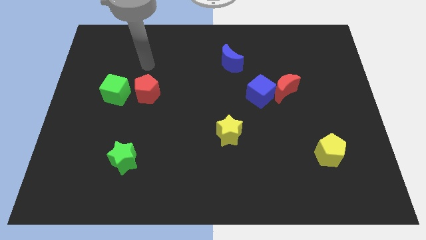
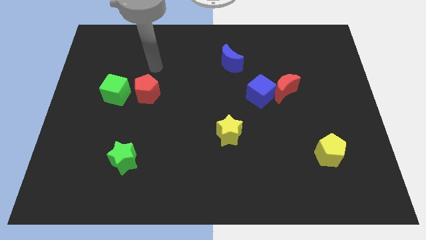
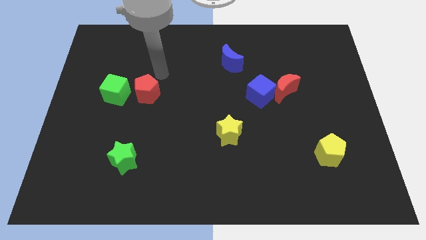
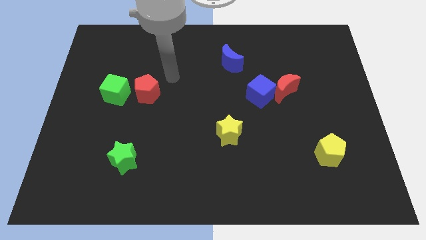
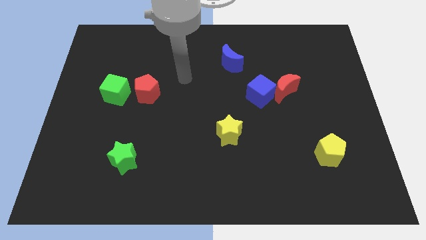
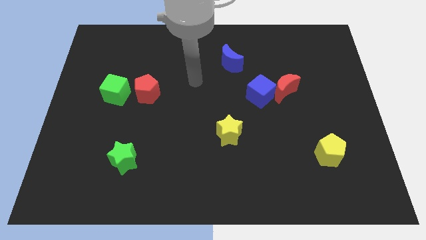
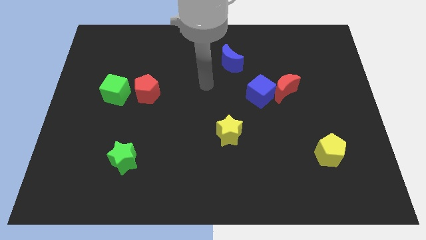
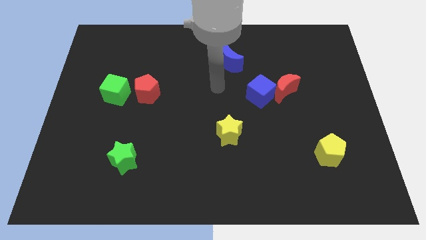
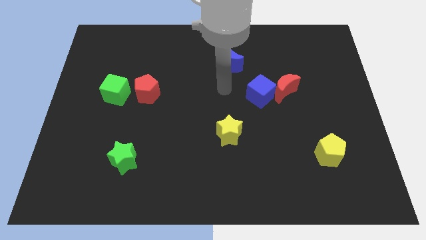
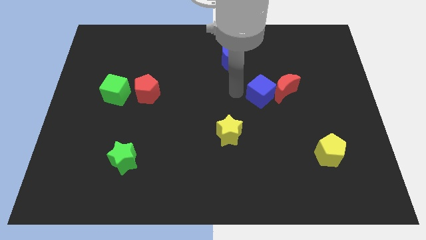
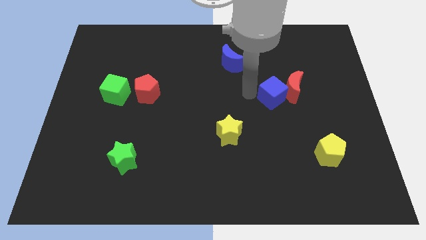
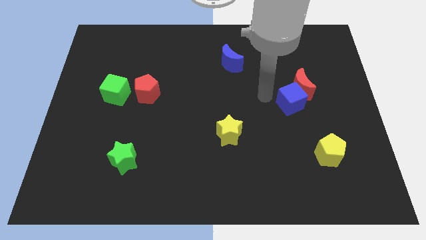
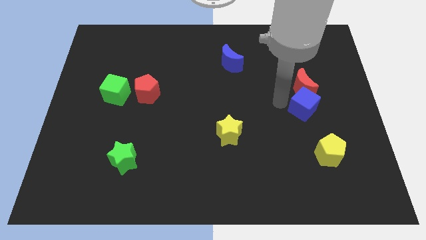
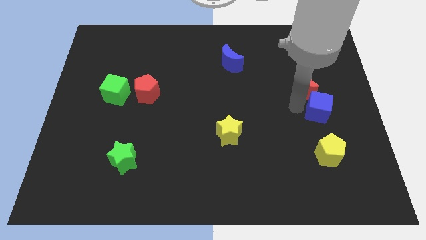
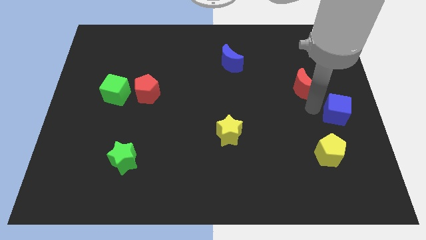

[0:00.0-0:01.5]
pull the red moon apart from the blue cube

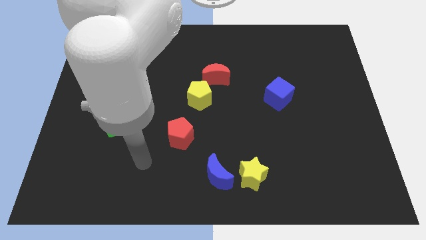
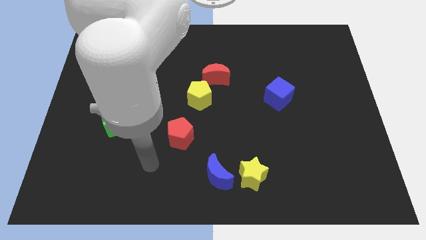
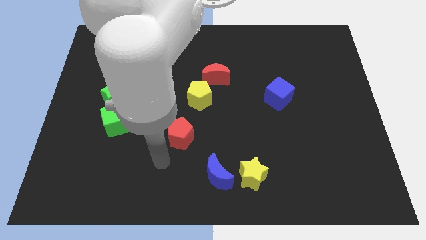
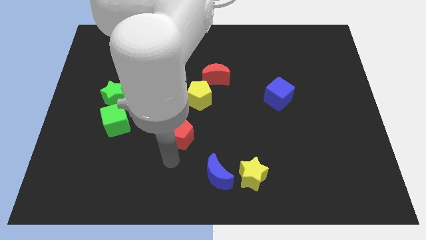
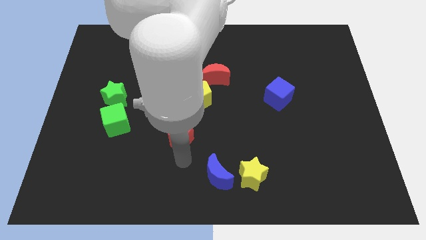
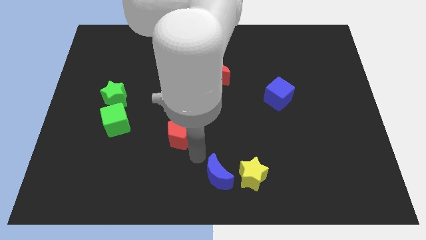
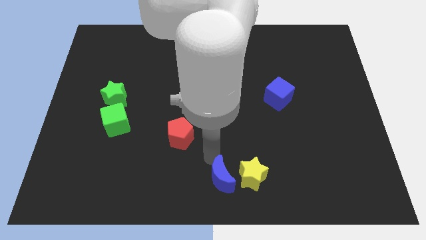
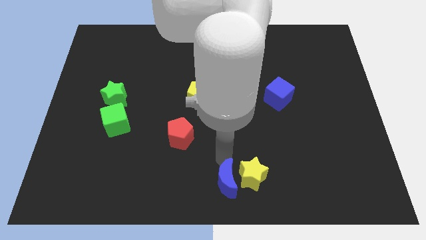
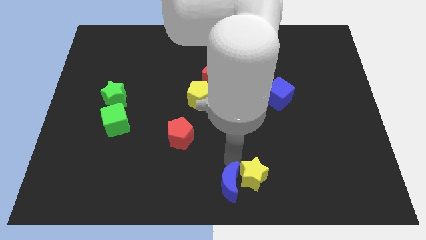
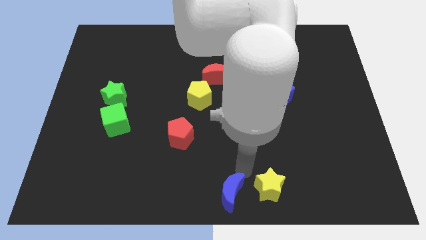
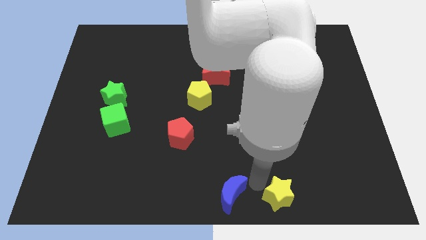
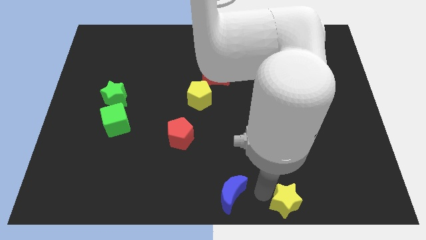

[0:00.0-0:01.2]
separate the blue moon from the yellow star

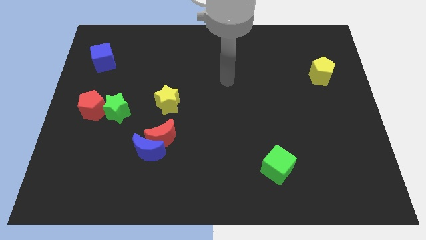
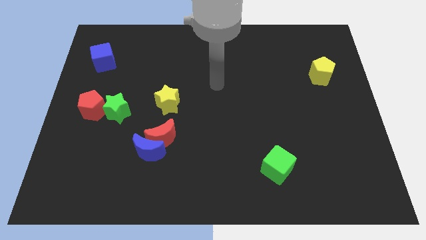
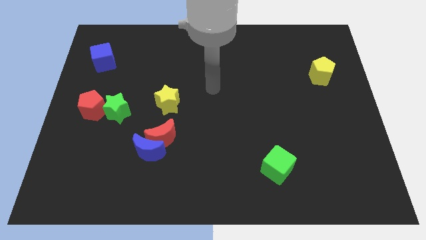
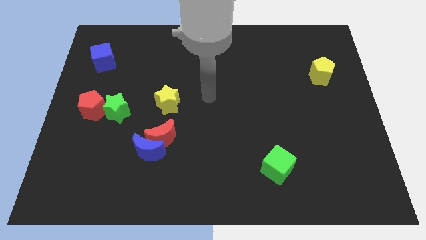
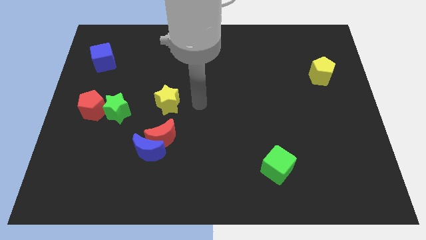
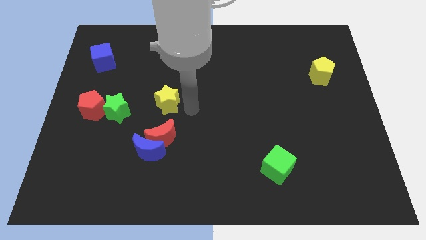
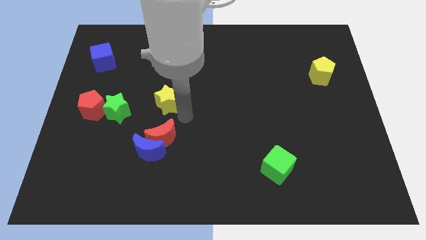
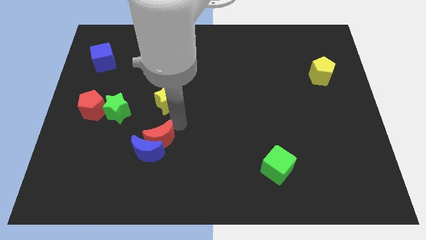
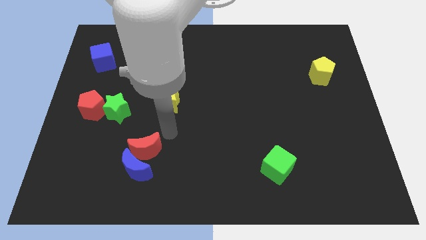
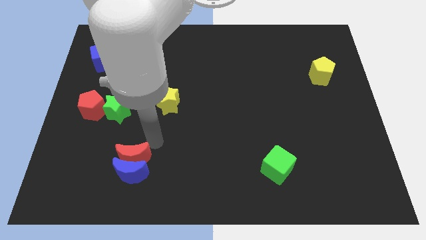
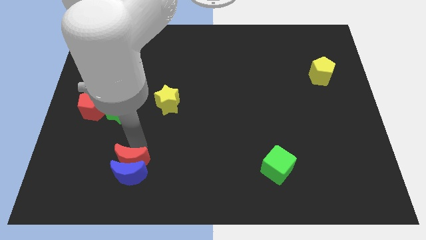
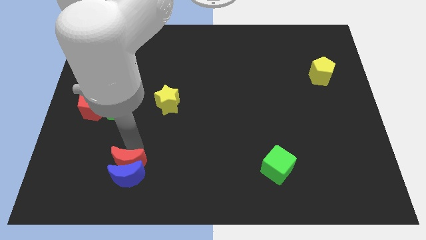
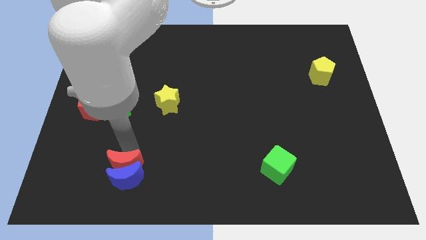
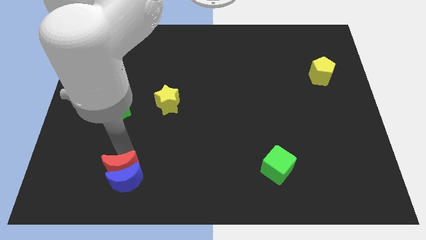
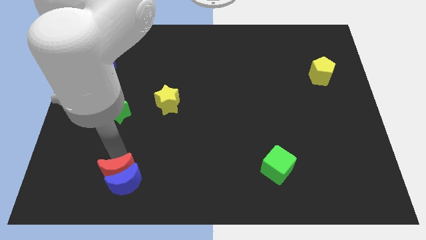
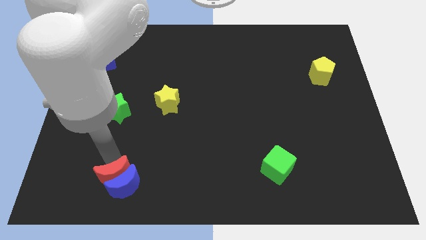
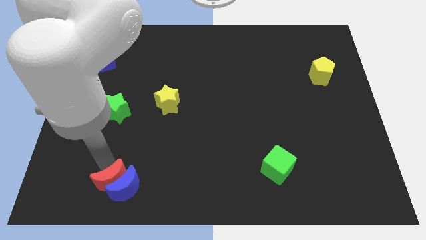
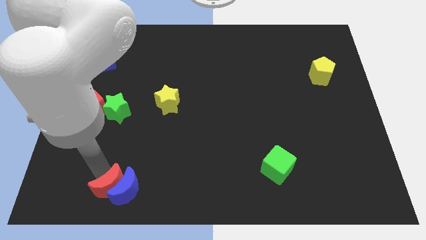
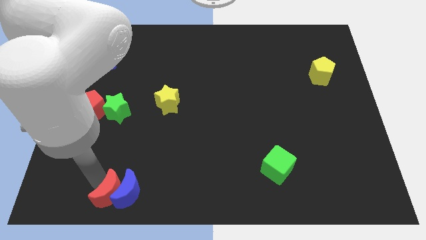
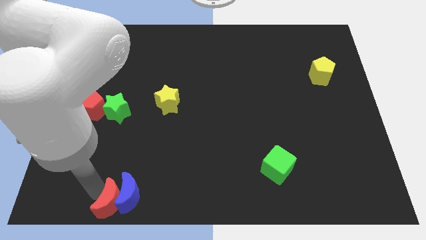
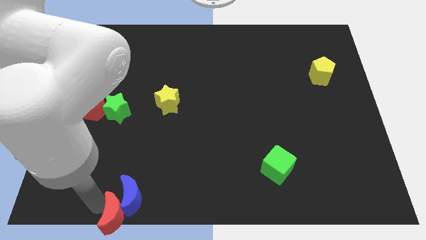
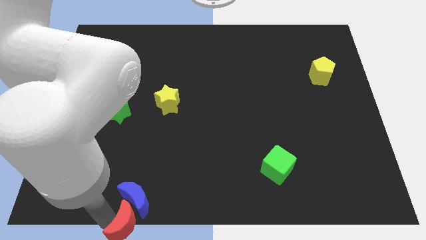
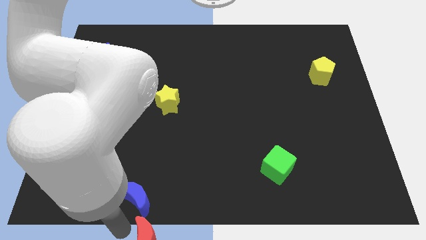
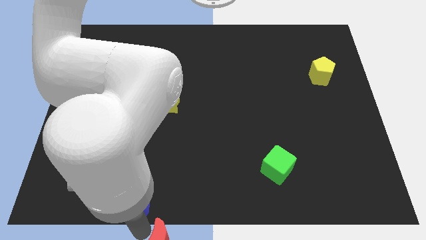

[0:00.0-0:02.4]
move the blue moon away from the red moon

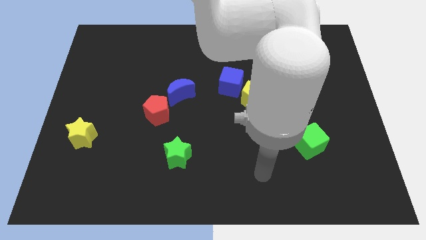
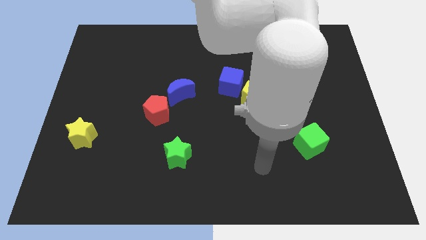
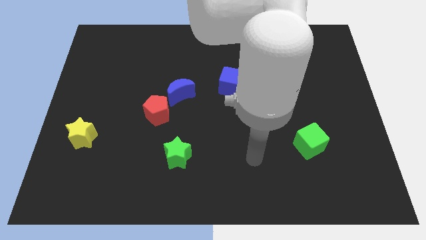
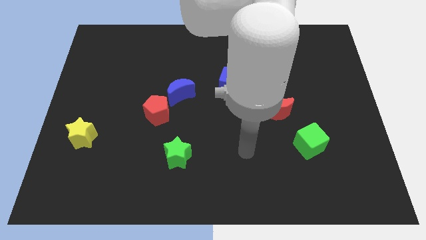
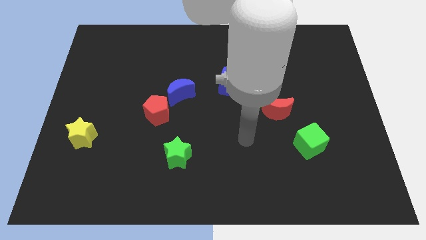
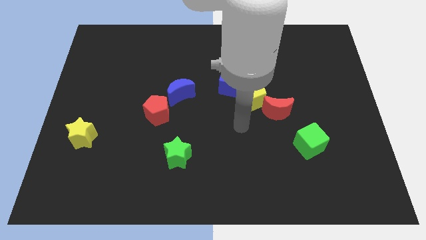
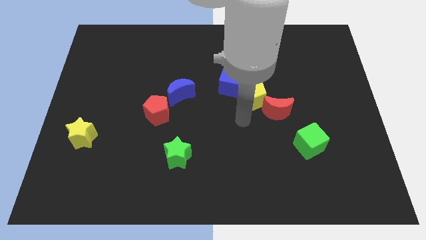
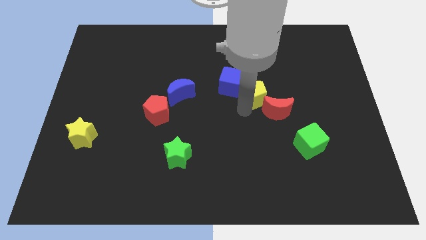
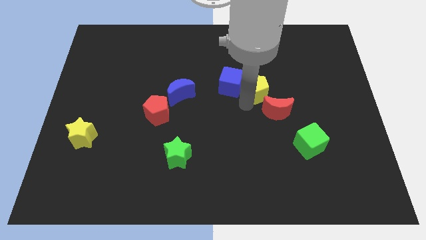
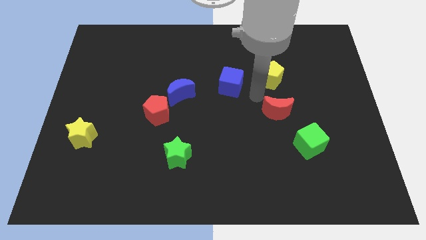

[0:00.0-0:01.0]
separate the red moon from the yellow pentagon

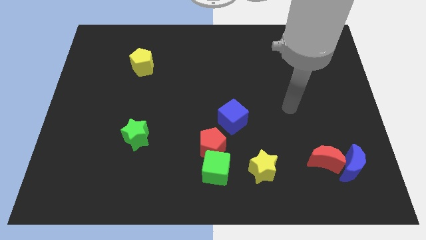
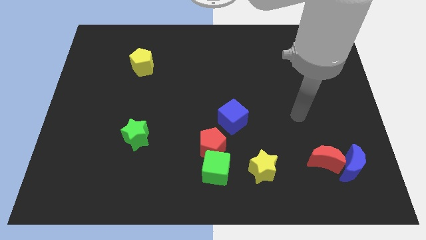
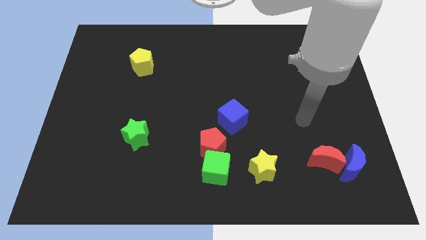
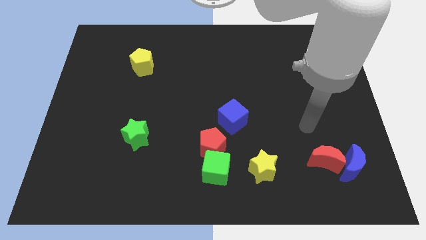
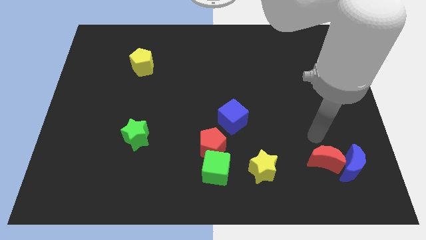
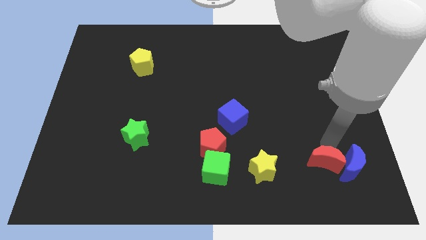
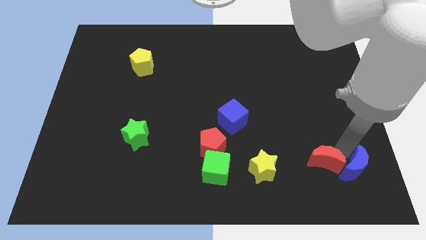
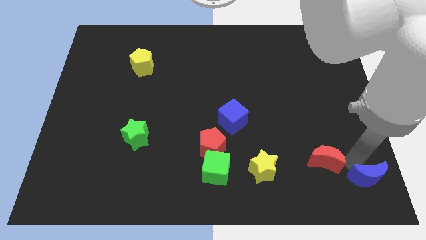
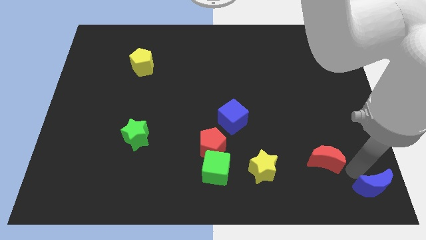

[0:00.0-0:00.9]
move the red moon away from the blue moon

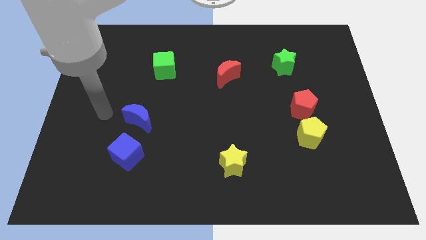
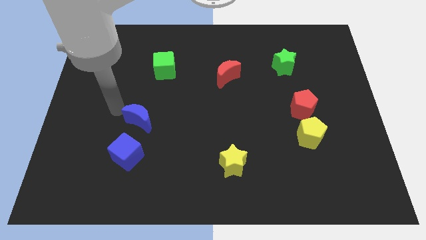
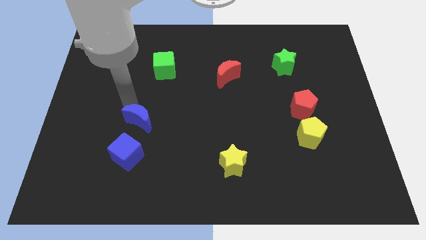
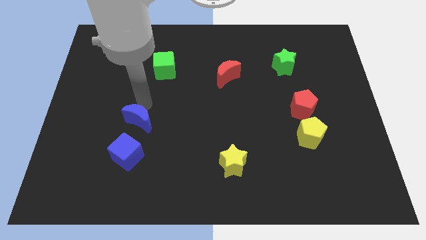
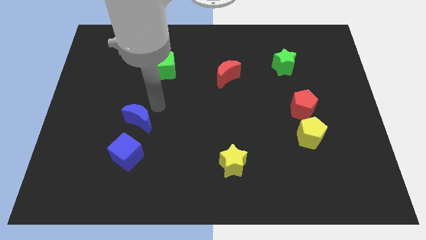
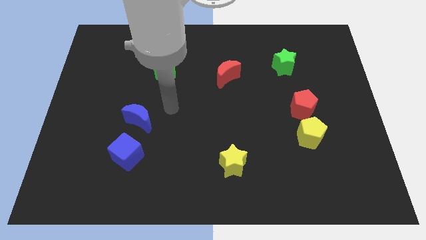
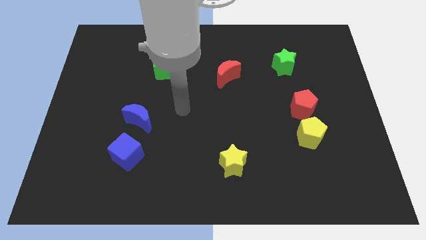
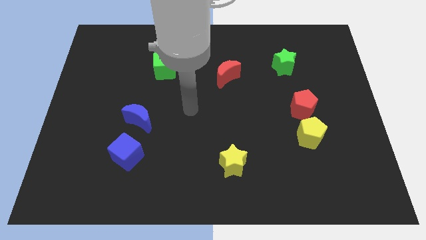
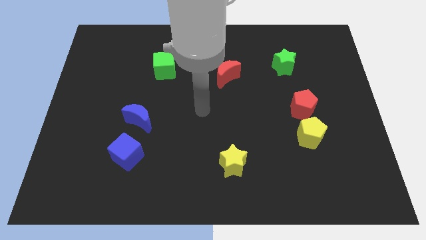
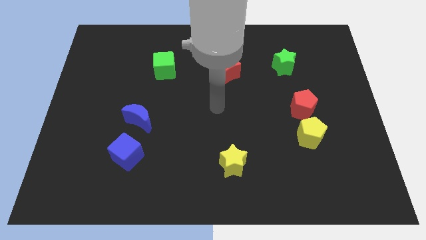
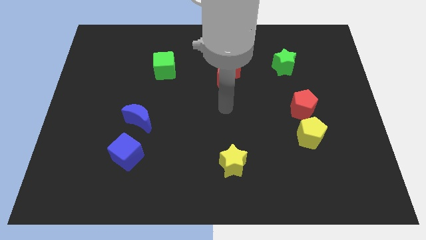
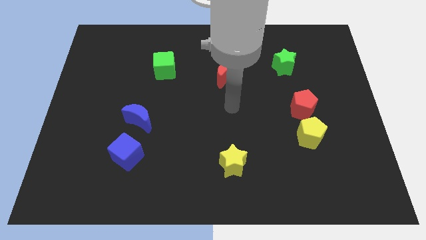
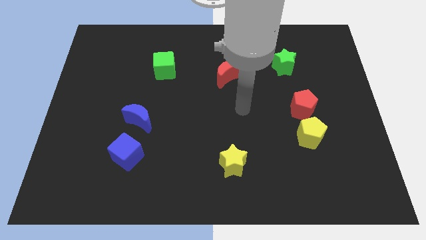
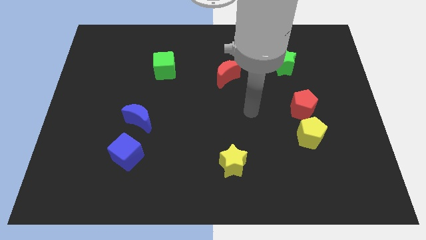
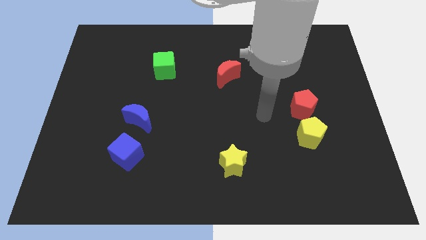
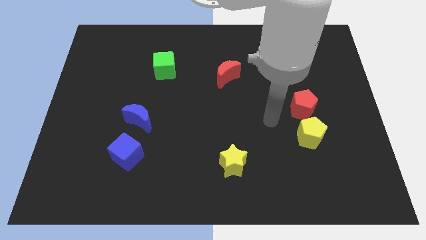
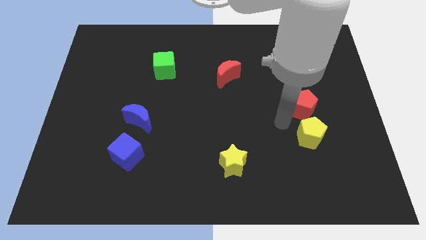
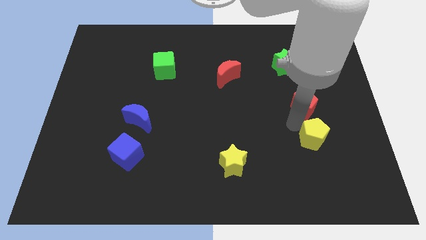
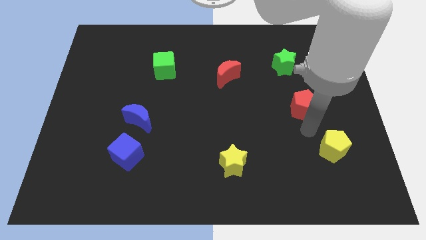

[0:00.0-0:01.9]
separate the red pentagon from the yellow pentagon

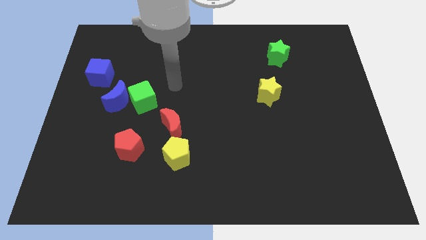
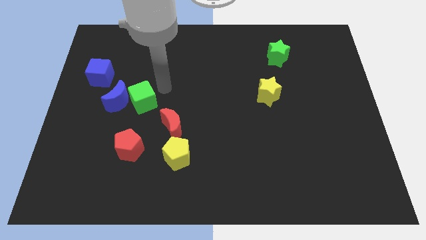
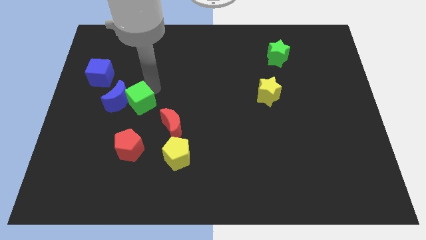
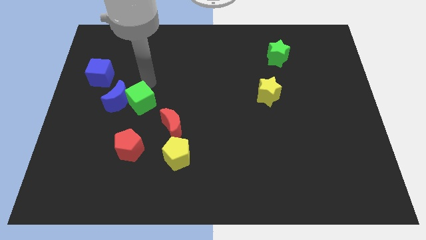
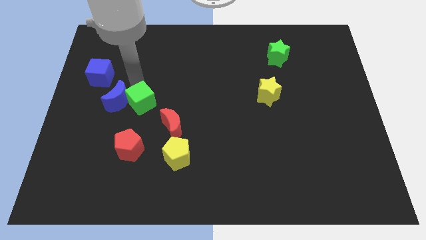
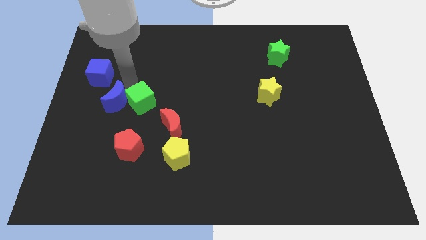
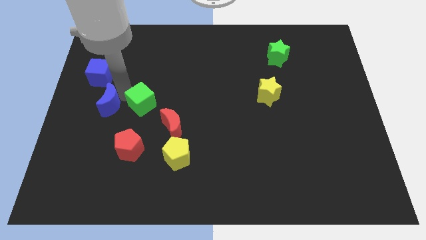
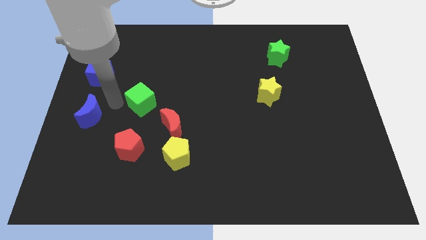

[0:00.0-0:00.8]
move the green cube away from the blue moon
